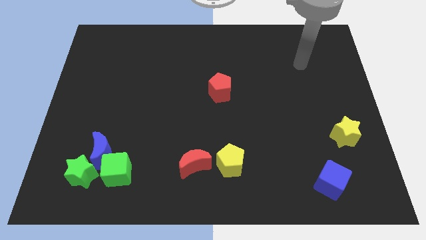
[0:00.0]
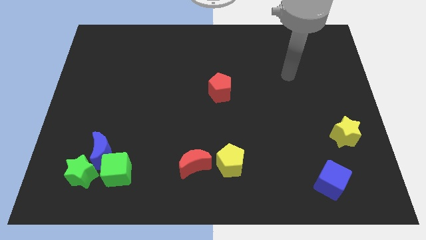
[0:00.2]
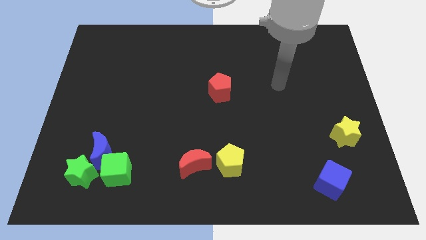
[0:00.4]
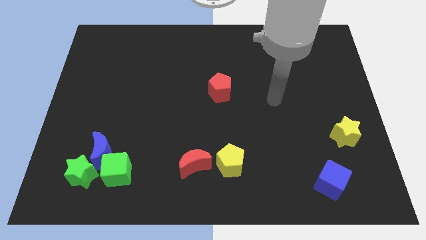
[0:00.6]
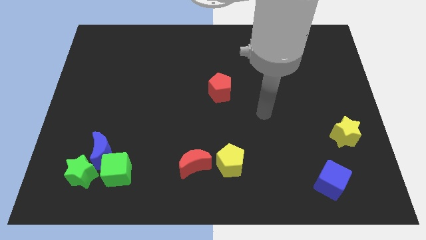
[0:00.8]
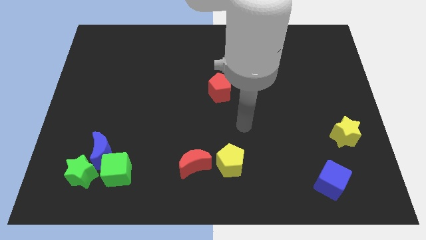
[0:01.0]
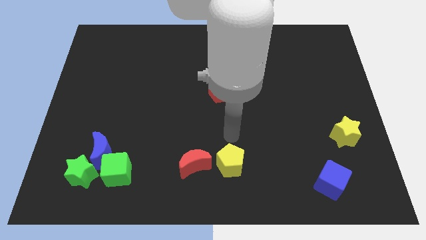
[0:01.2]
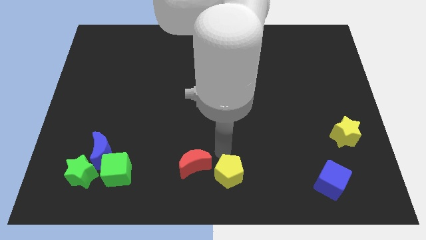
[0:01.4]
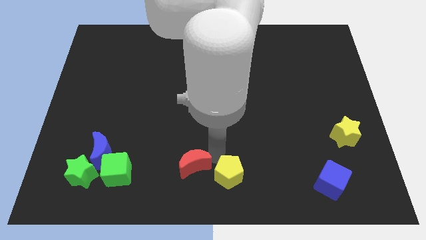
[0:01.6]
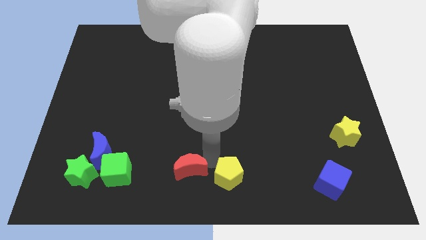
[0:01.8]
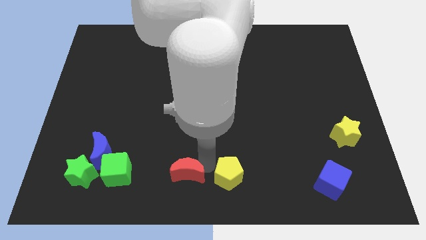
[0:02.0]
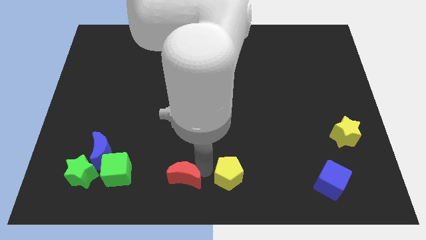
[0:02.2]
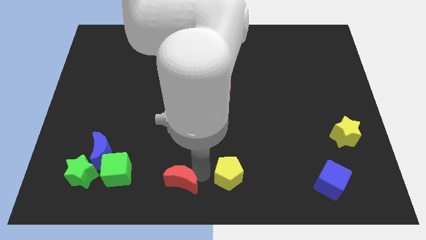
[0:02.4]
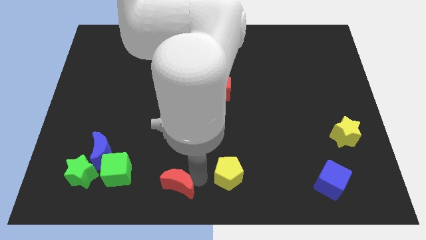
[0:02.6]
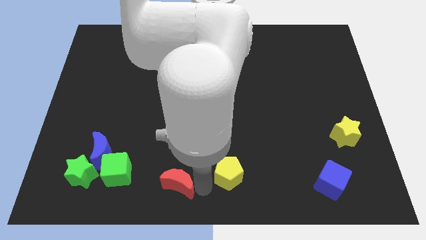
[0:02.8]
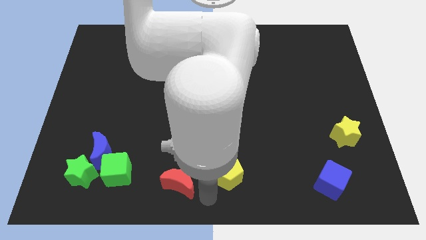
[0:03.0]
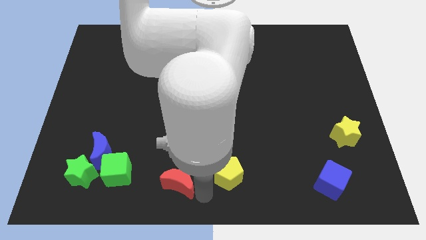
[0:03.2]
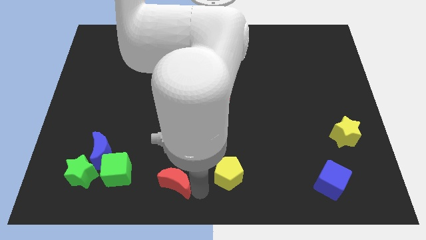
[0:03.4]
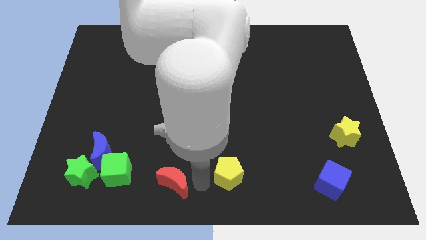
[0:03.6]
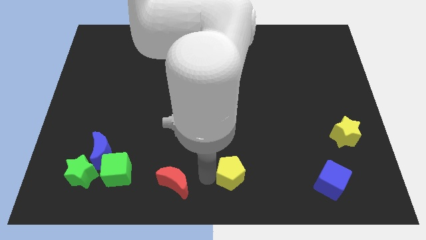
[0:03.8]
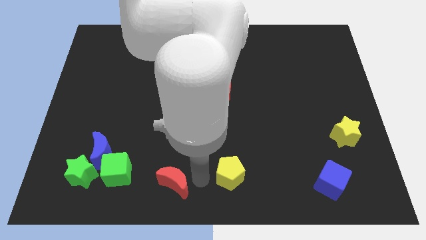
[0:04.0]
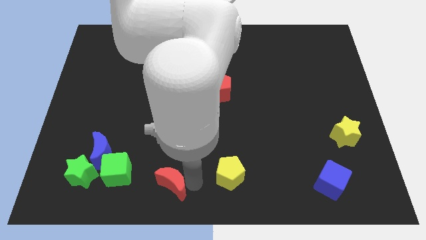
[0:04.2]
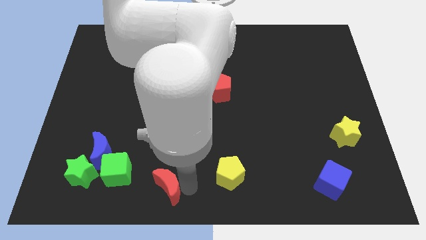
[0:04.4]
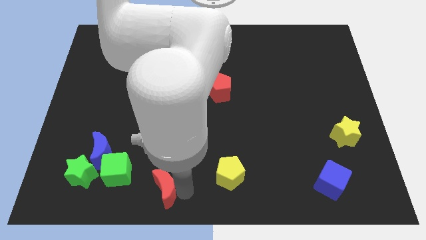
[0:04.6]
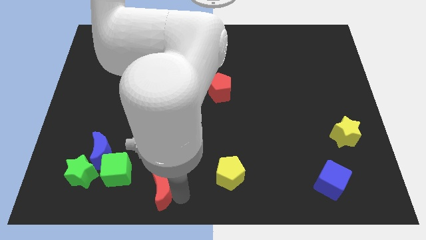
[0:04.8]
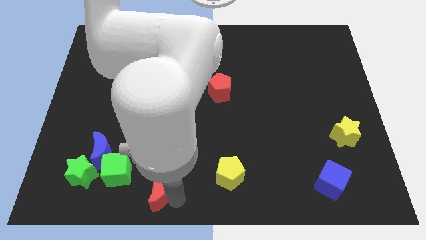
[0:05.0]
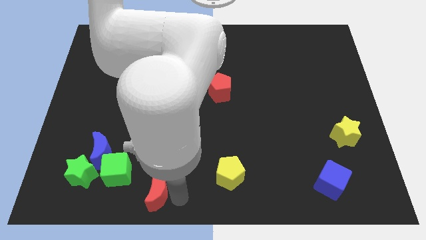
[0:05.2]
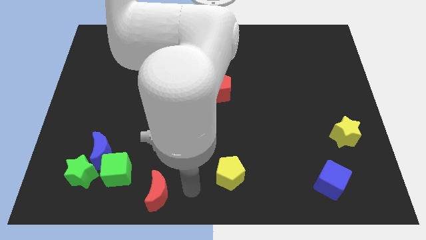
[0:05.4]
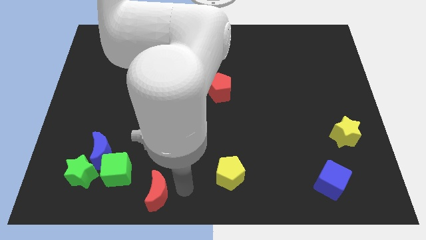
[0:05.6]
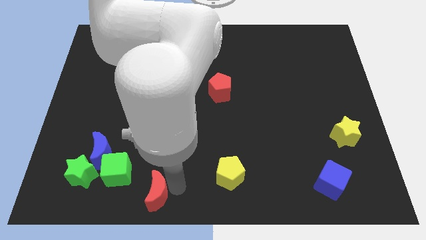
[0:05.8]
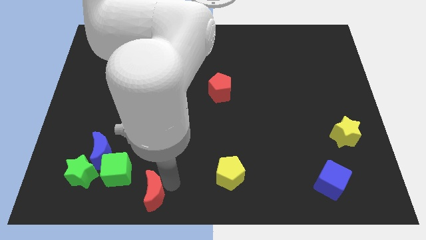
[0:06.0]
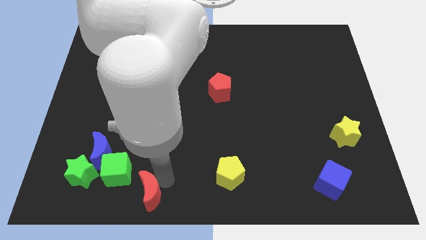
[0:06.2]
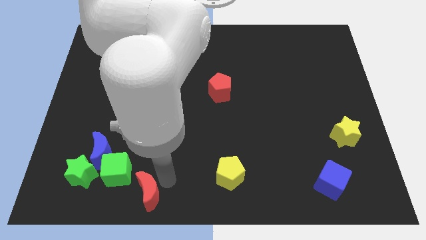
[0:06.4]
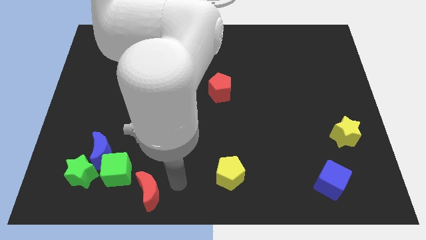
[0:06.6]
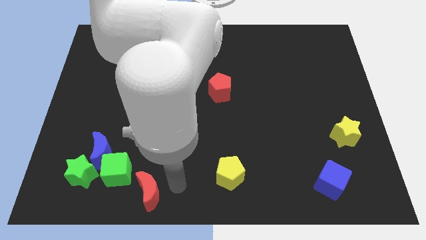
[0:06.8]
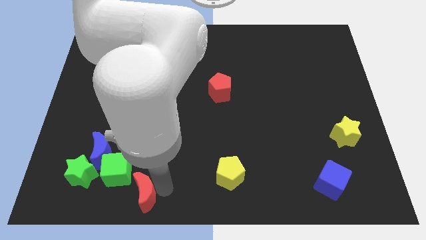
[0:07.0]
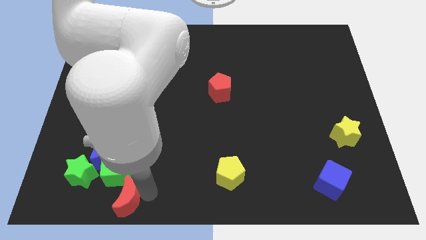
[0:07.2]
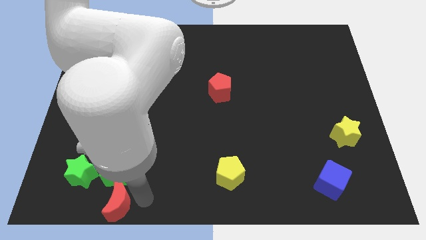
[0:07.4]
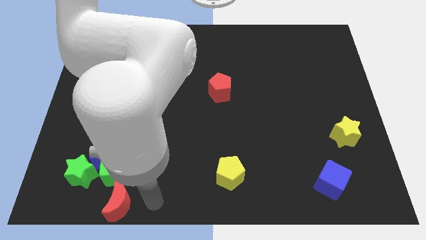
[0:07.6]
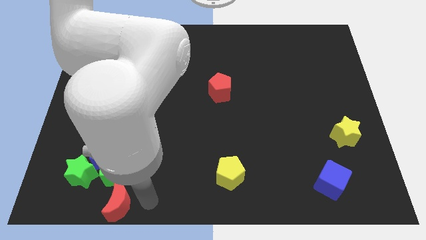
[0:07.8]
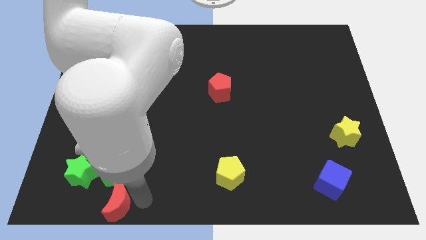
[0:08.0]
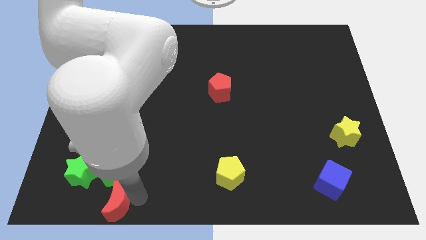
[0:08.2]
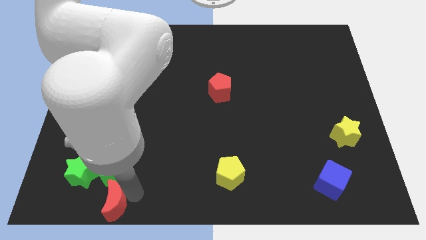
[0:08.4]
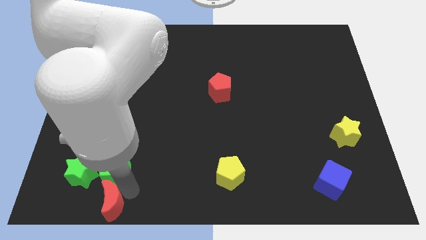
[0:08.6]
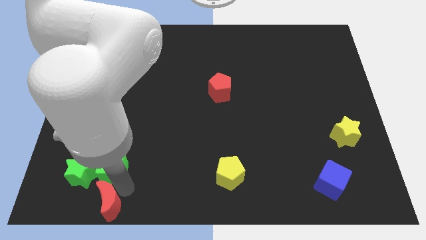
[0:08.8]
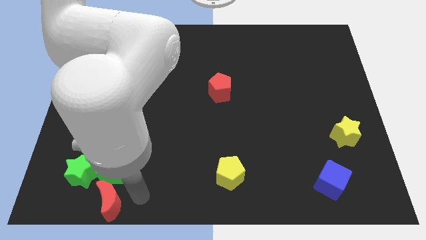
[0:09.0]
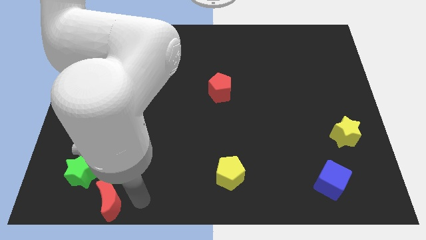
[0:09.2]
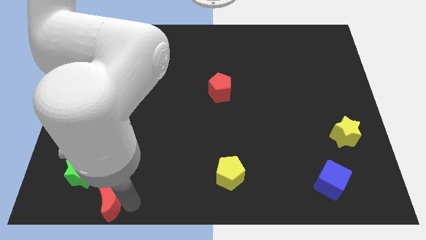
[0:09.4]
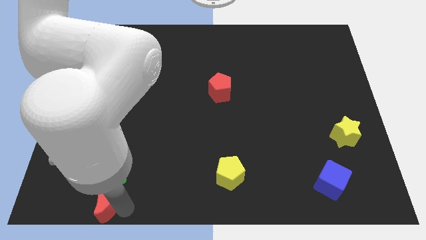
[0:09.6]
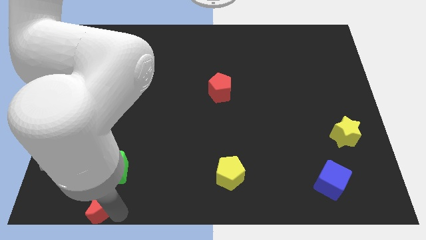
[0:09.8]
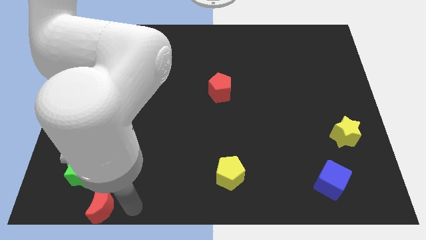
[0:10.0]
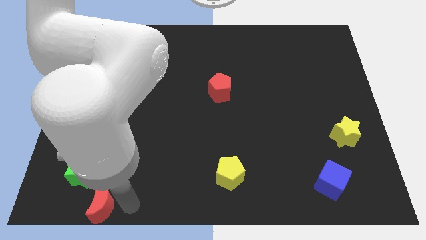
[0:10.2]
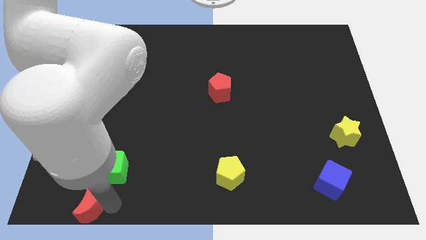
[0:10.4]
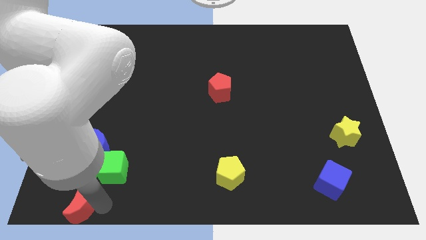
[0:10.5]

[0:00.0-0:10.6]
slide the red moon to the bottom left corner
